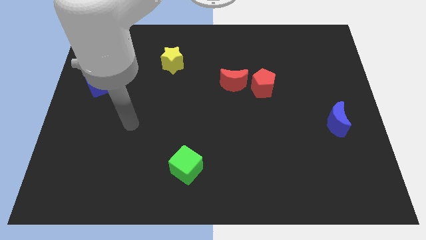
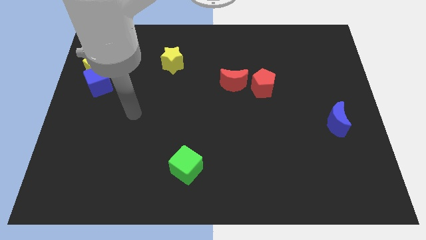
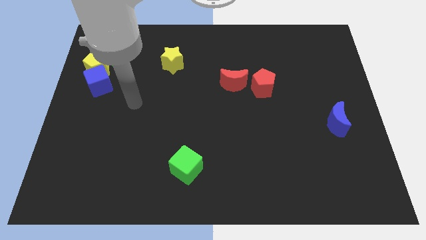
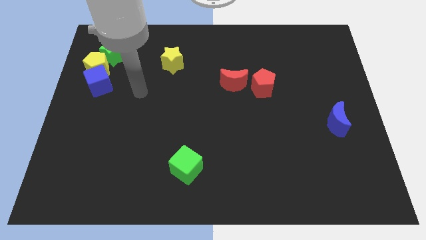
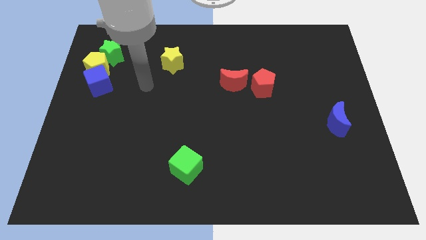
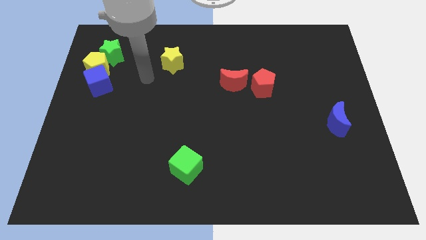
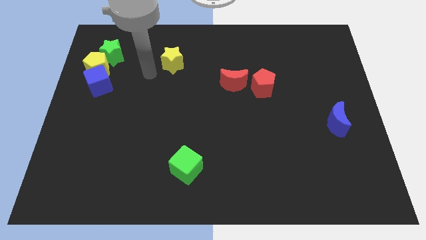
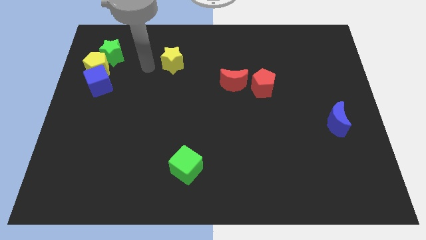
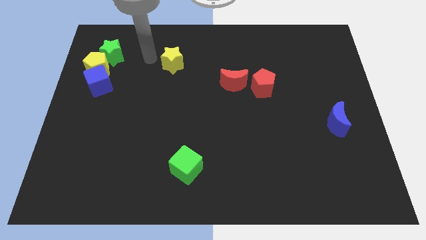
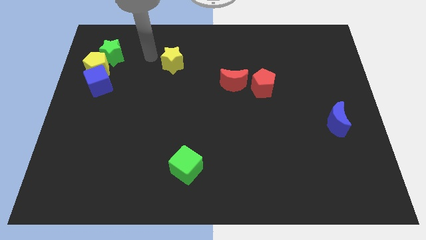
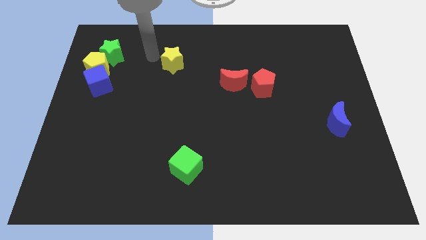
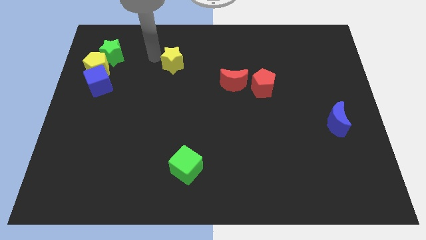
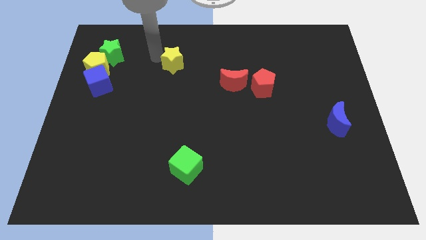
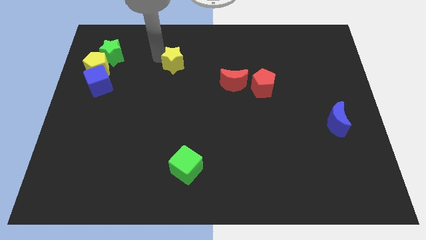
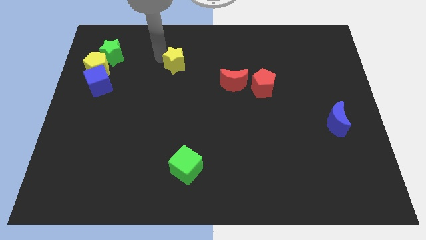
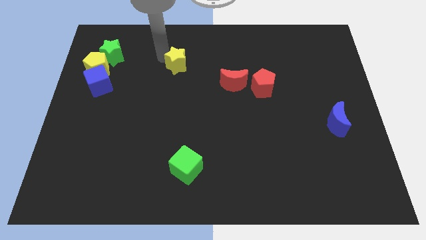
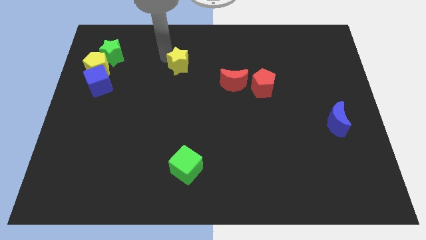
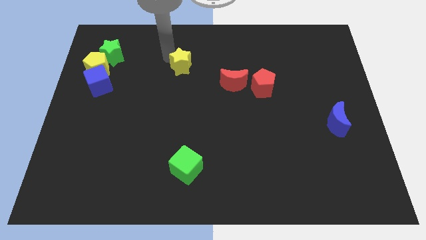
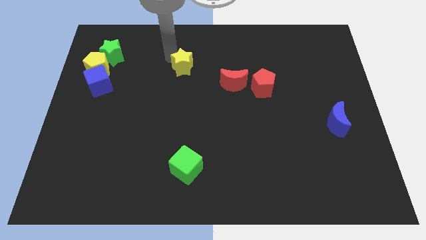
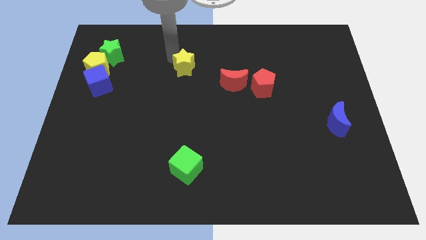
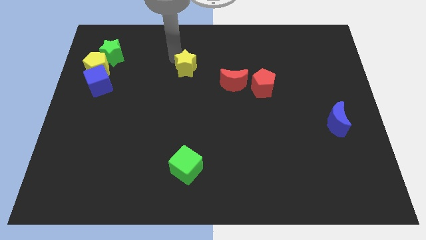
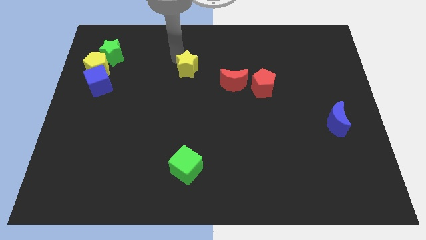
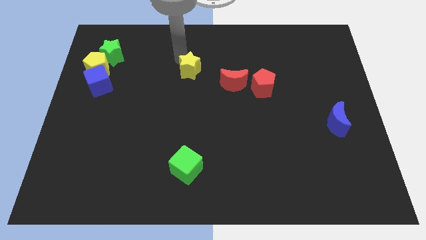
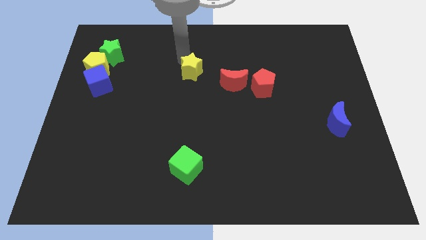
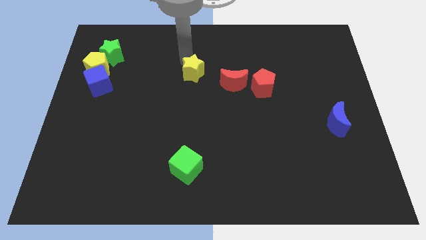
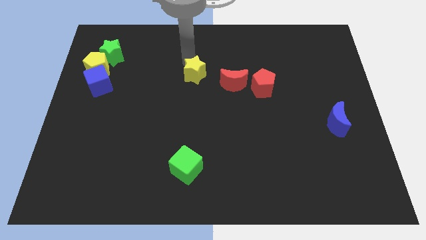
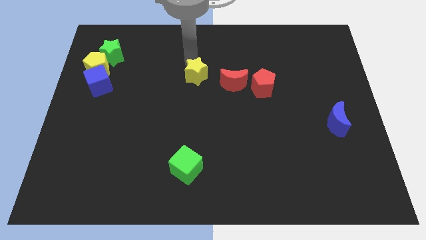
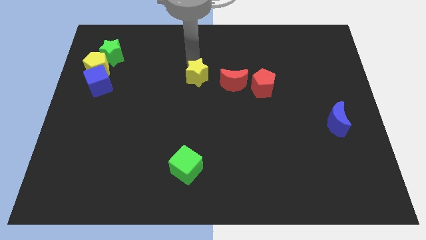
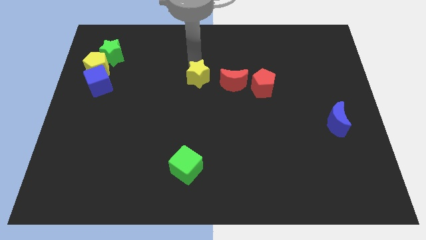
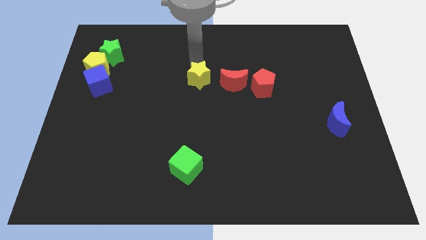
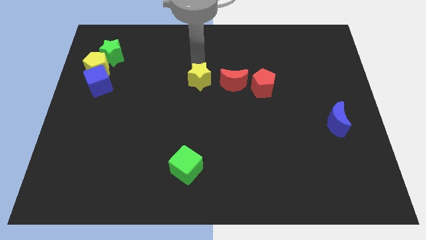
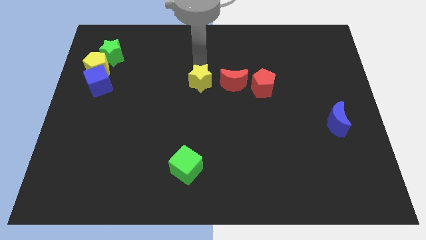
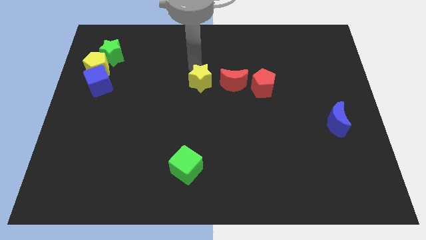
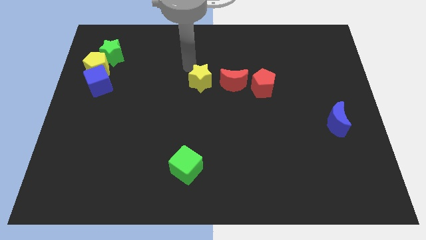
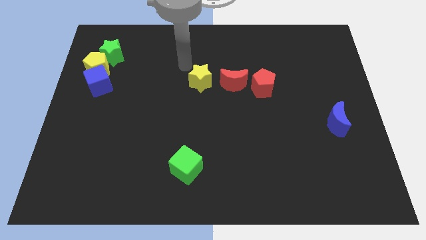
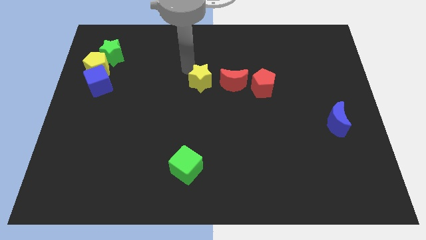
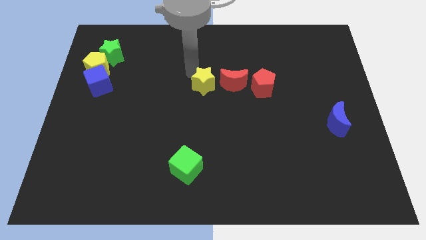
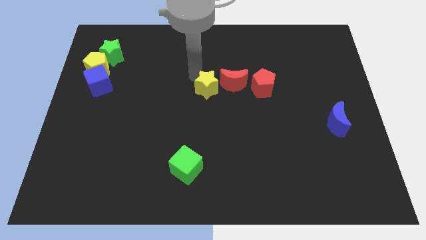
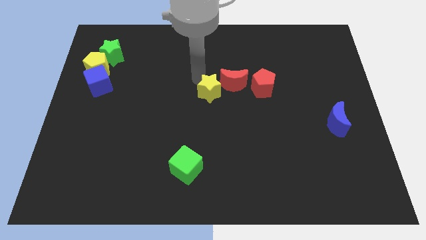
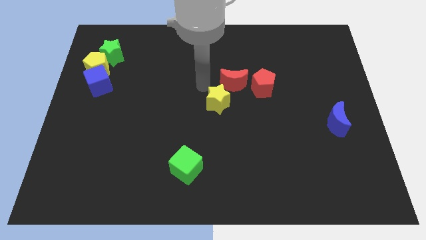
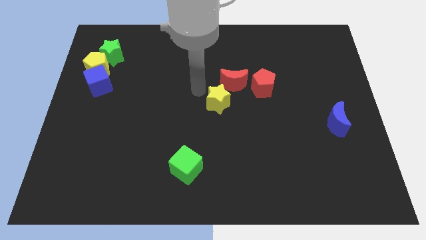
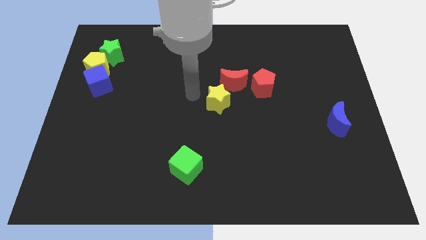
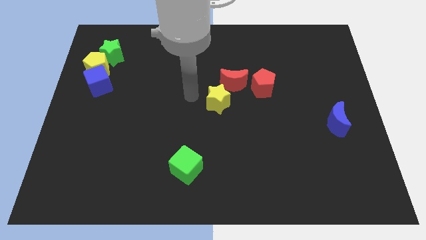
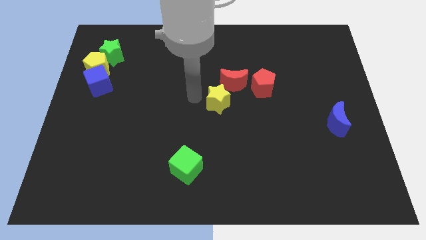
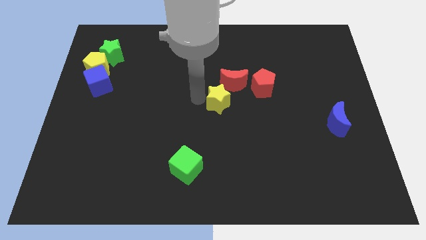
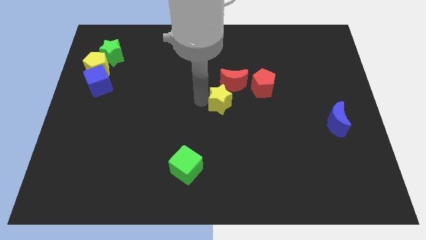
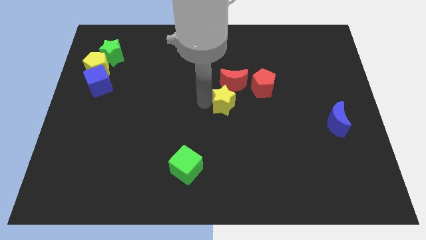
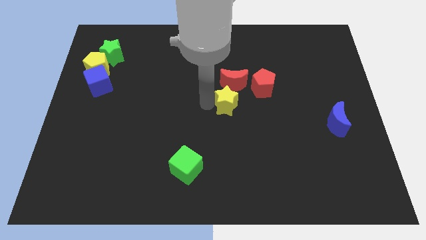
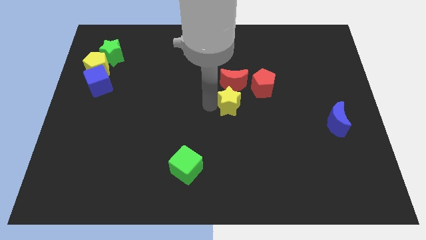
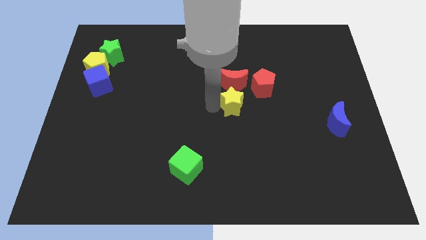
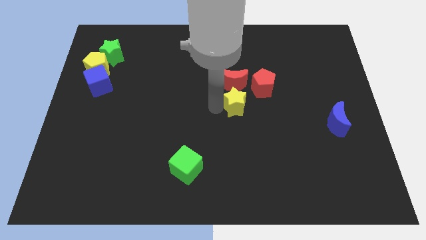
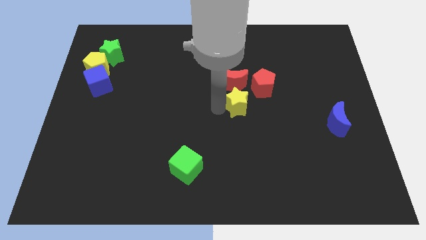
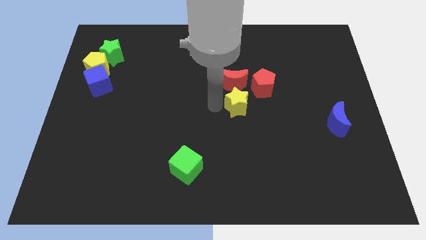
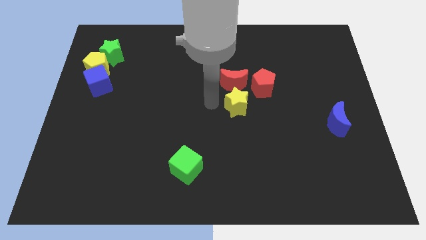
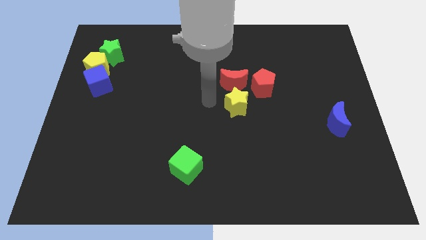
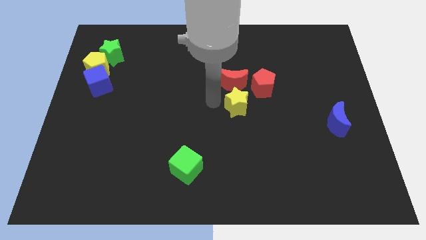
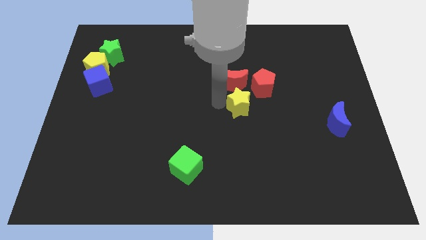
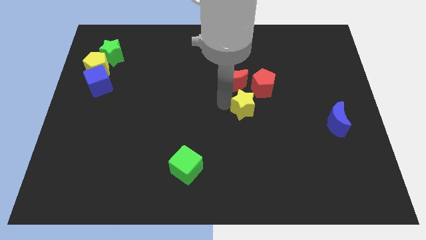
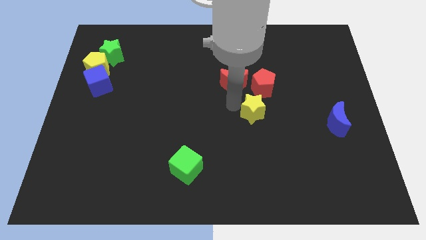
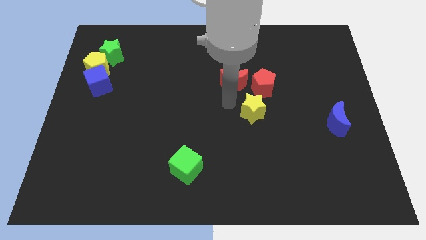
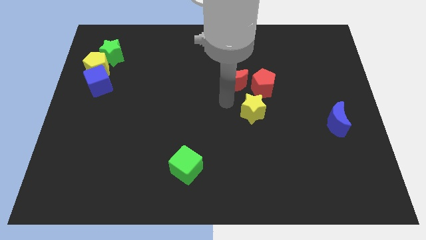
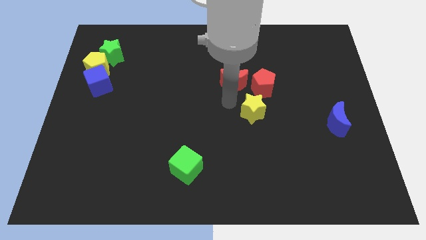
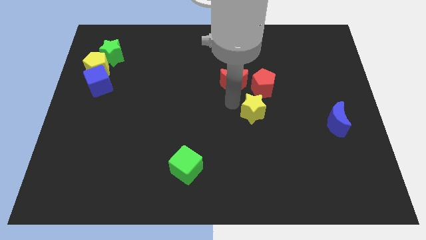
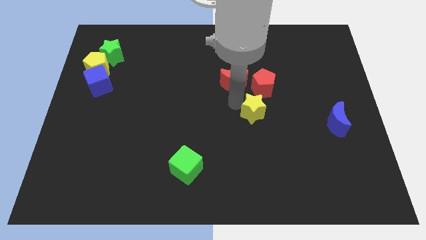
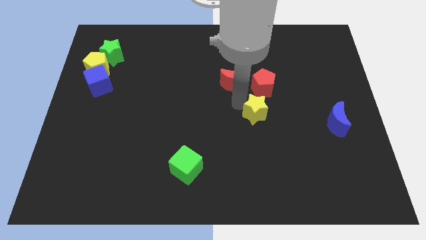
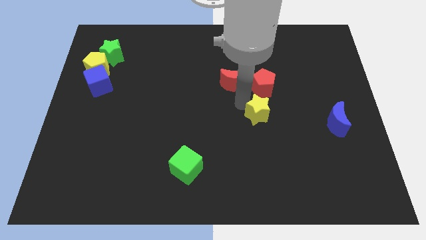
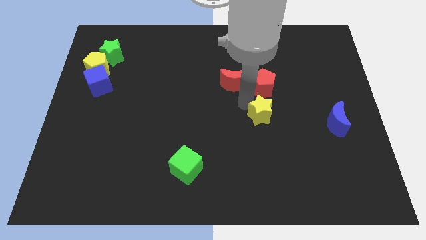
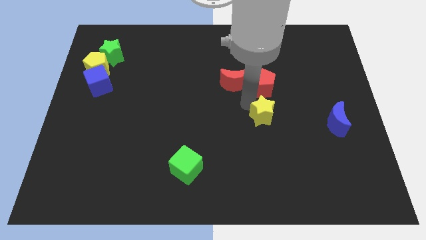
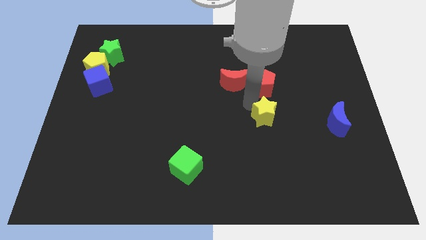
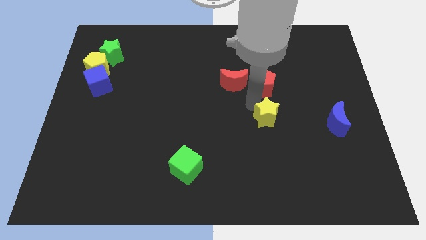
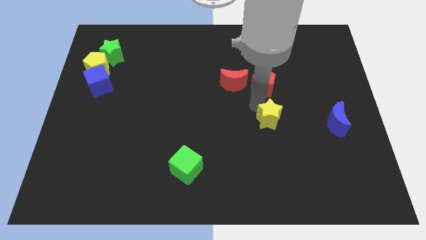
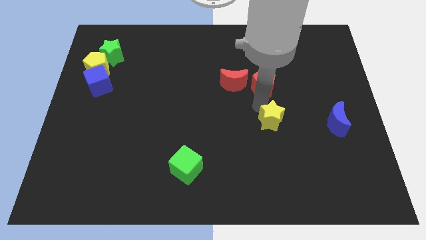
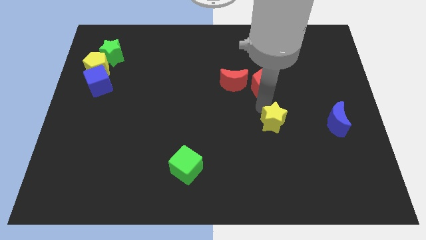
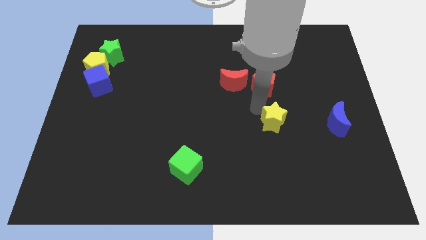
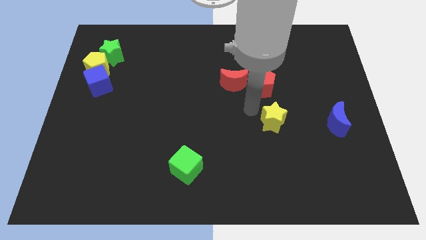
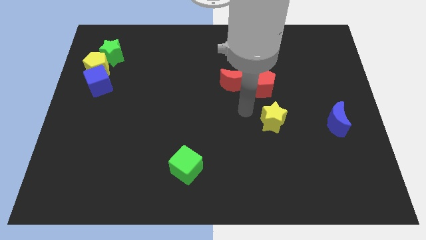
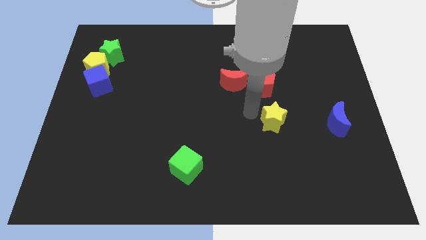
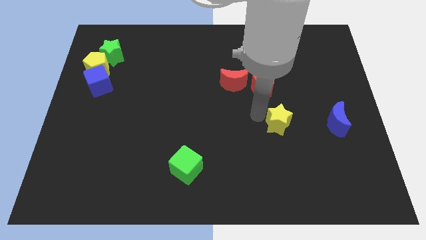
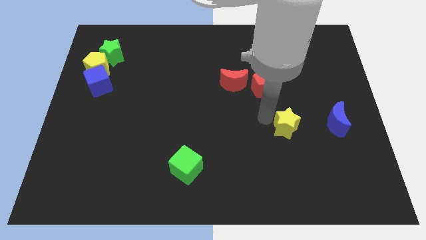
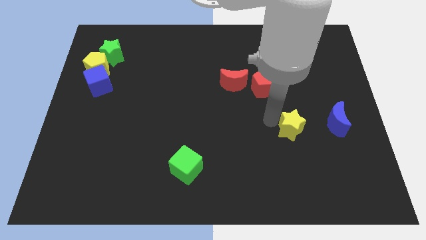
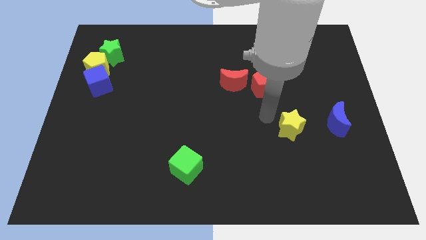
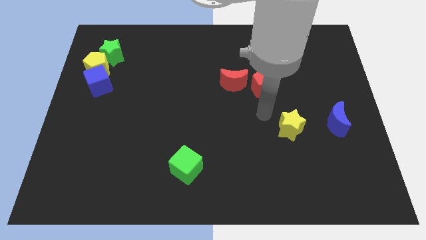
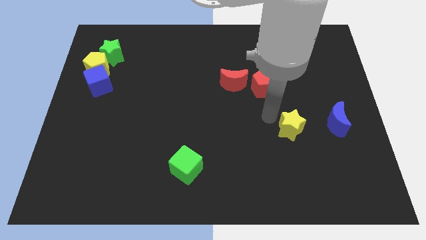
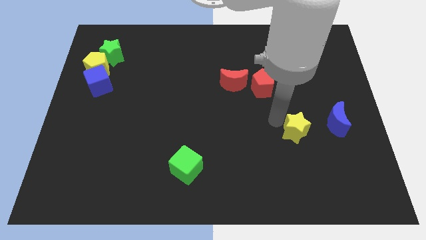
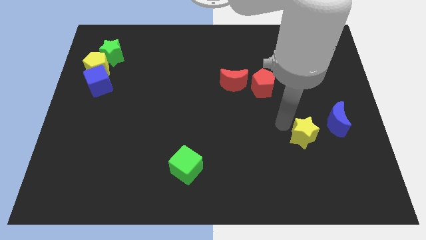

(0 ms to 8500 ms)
move the yellow star diagonally down and to the left of the blue moon
